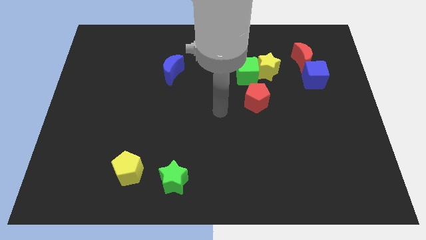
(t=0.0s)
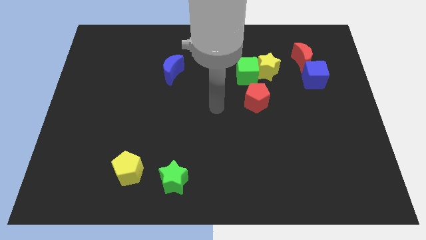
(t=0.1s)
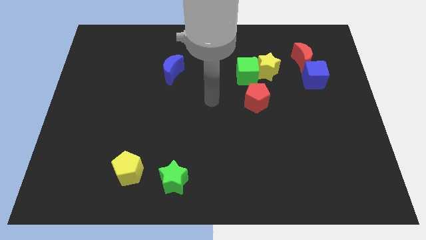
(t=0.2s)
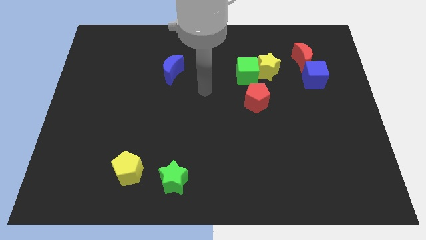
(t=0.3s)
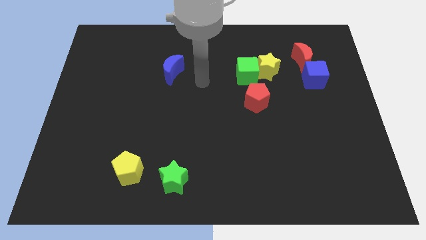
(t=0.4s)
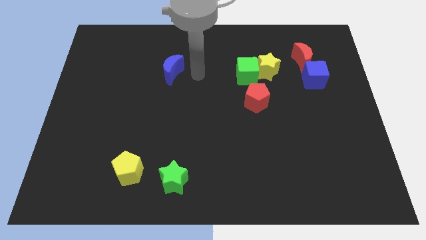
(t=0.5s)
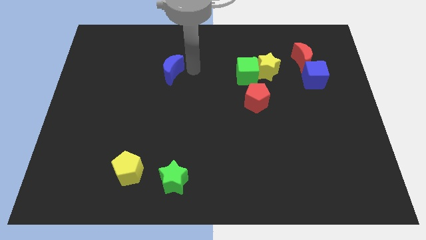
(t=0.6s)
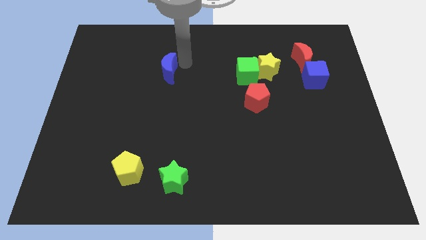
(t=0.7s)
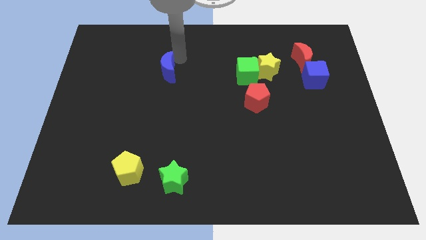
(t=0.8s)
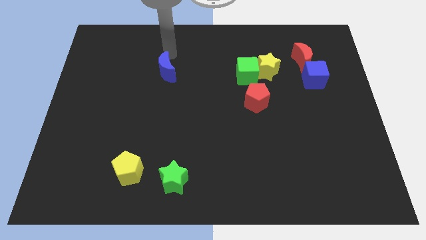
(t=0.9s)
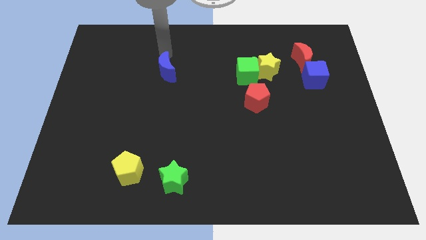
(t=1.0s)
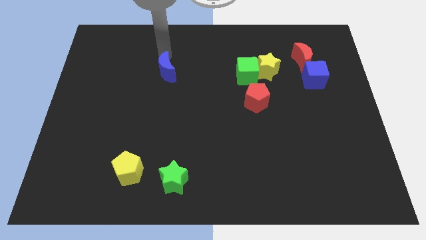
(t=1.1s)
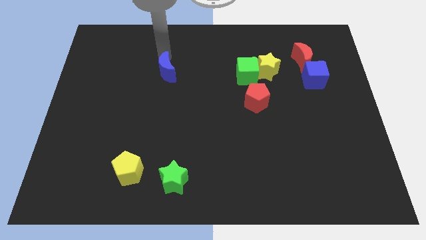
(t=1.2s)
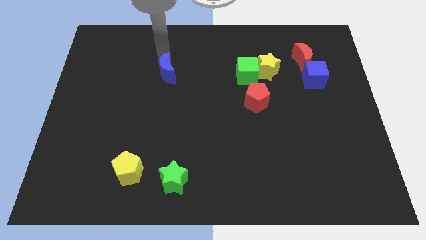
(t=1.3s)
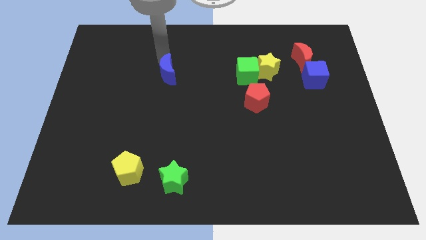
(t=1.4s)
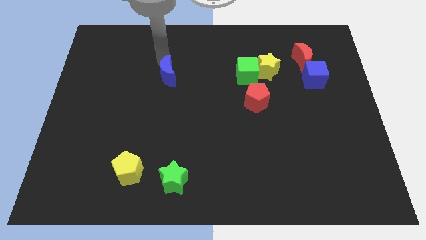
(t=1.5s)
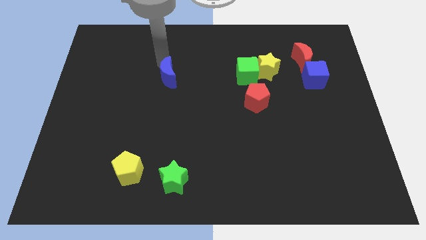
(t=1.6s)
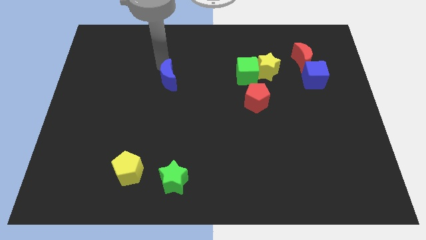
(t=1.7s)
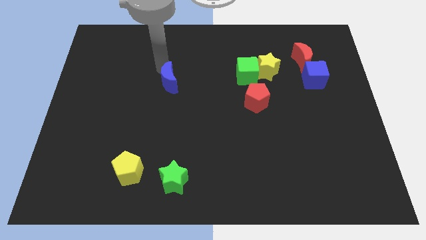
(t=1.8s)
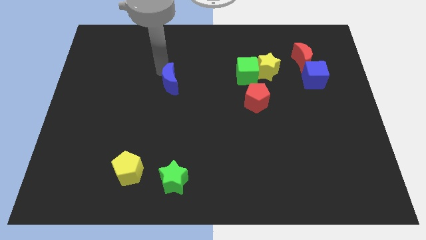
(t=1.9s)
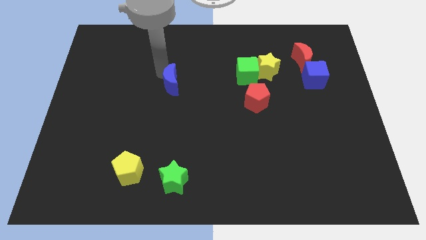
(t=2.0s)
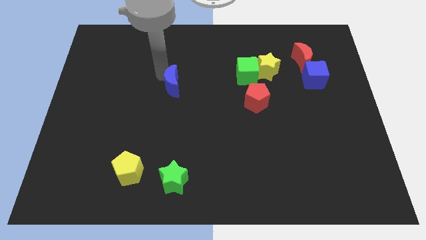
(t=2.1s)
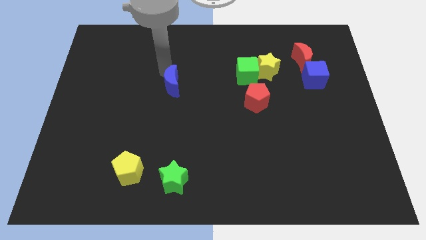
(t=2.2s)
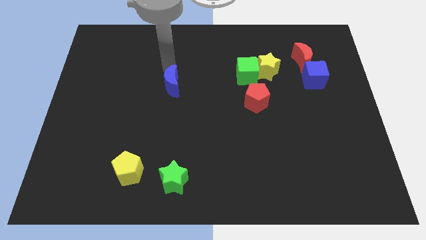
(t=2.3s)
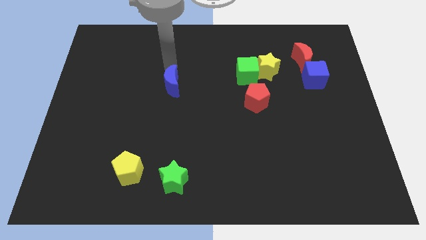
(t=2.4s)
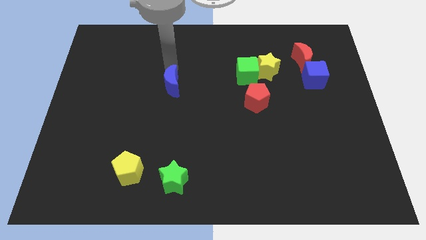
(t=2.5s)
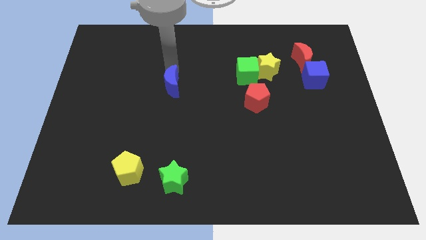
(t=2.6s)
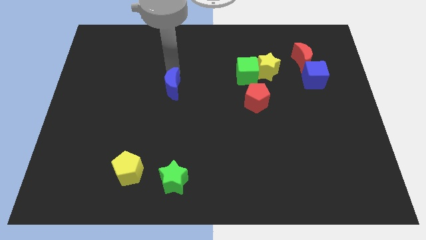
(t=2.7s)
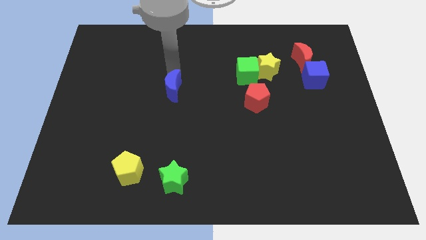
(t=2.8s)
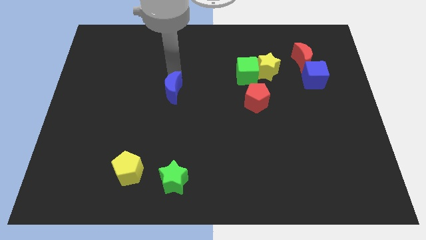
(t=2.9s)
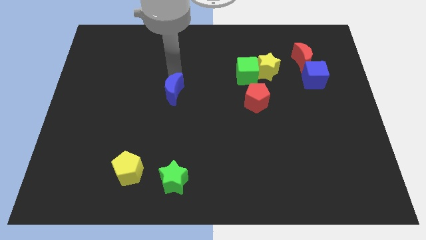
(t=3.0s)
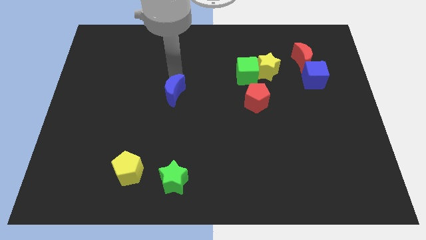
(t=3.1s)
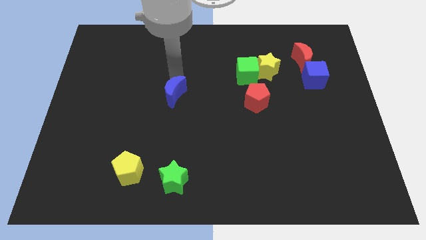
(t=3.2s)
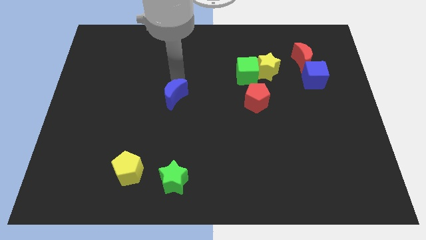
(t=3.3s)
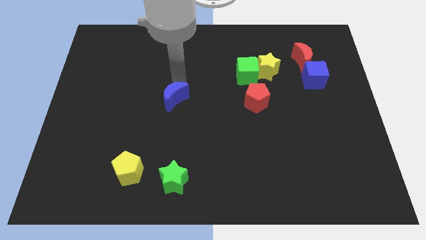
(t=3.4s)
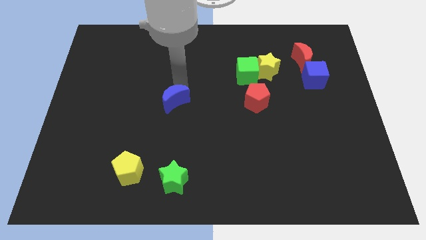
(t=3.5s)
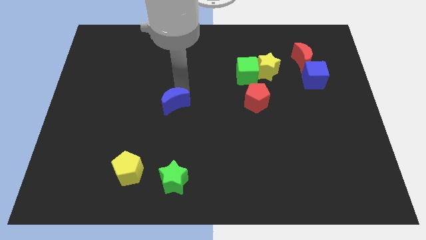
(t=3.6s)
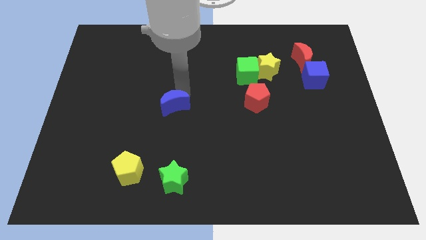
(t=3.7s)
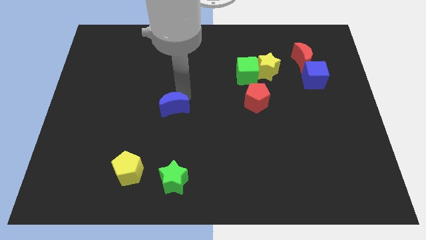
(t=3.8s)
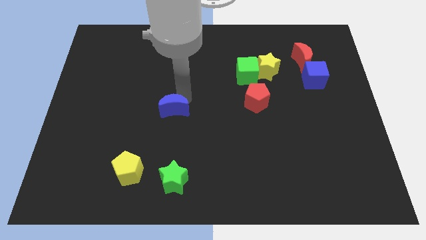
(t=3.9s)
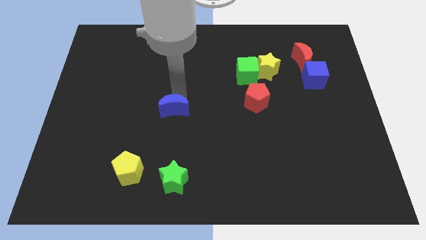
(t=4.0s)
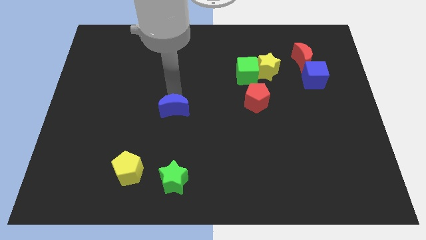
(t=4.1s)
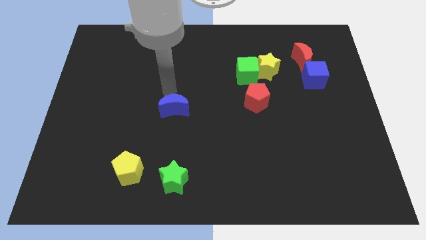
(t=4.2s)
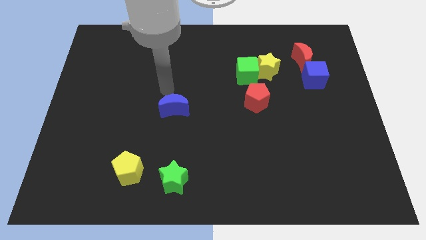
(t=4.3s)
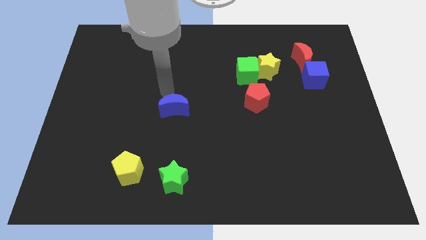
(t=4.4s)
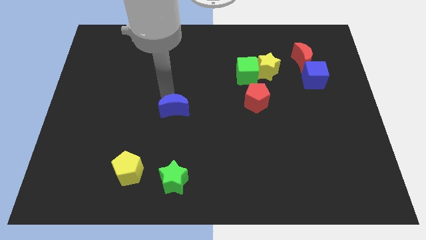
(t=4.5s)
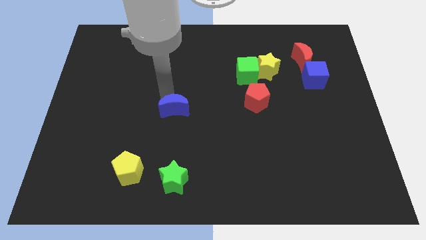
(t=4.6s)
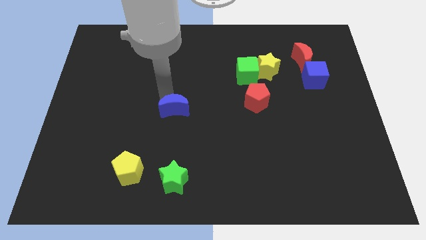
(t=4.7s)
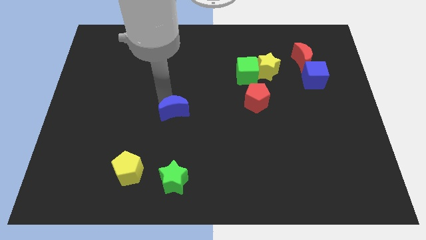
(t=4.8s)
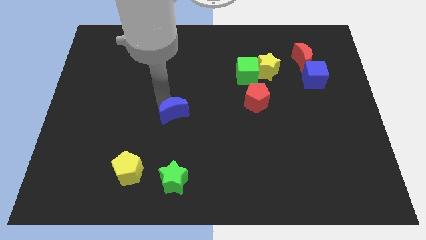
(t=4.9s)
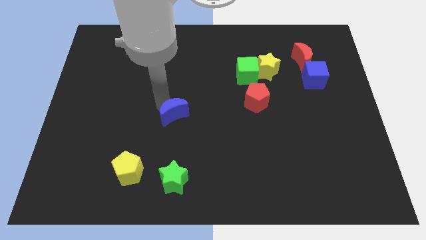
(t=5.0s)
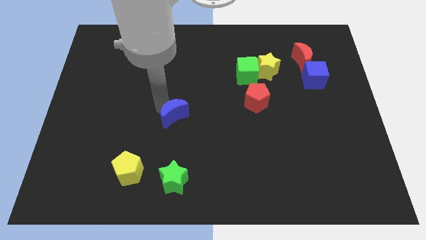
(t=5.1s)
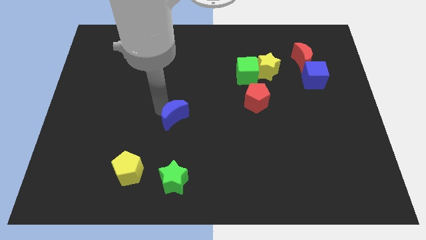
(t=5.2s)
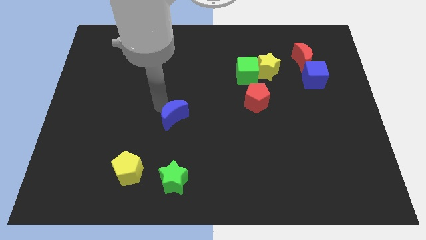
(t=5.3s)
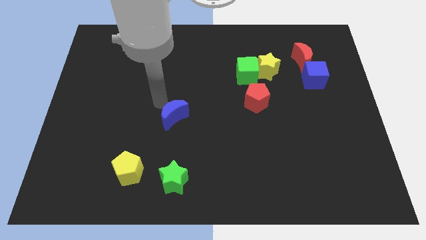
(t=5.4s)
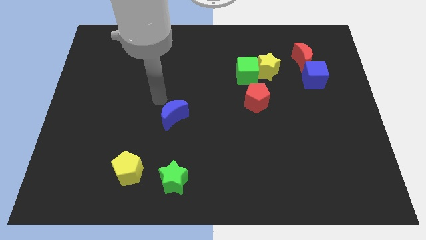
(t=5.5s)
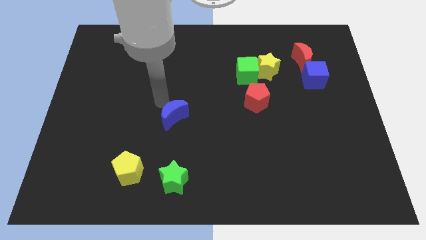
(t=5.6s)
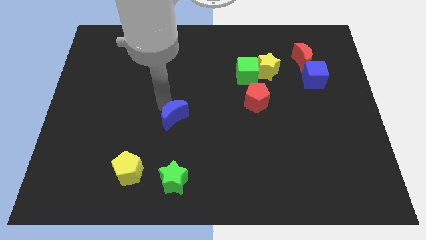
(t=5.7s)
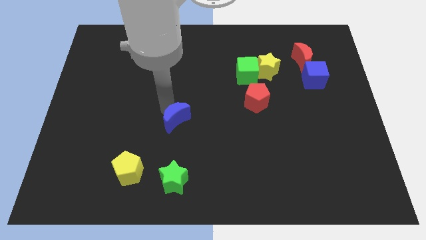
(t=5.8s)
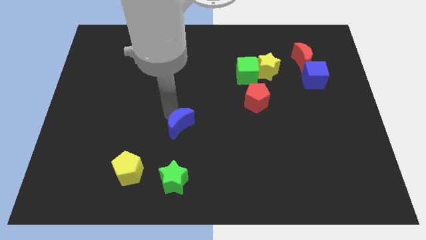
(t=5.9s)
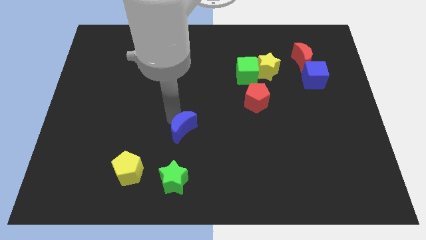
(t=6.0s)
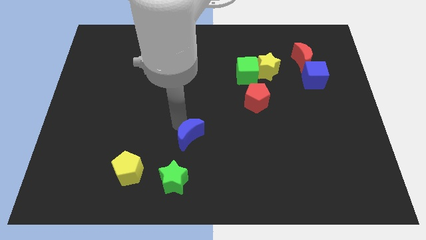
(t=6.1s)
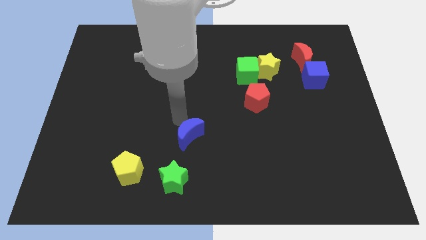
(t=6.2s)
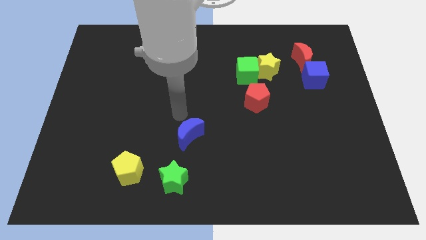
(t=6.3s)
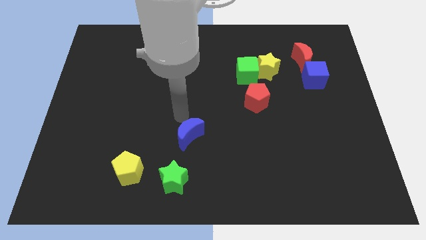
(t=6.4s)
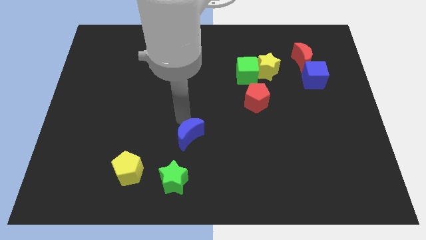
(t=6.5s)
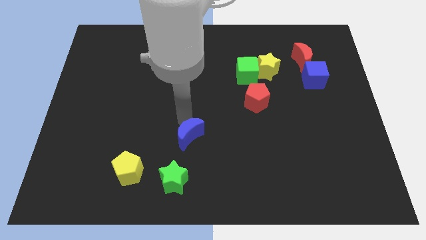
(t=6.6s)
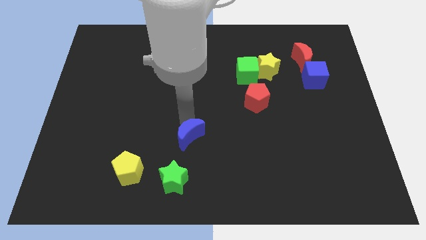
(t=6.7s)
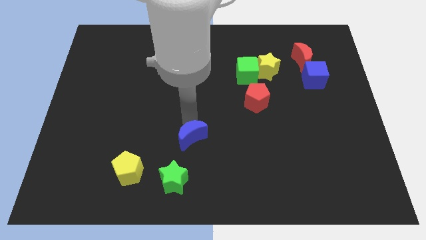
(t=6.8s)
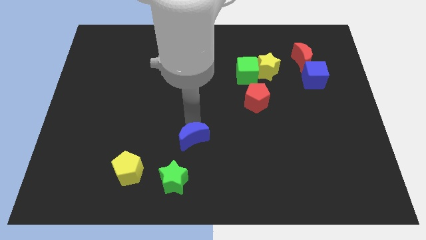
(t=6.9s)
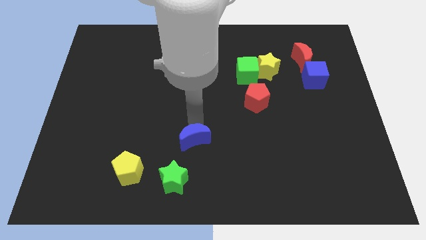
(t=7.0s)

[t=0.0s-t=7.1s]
move the blue moon diagonally up and to the right of the green star

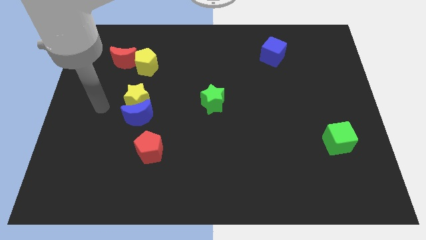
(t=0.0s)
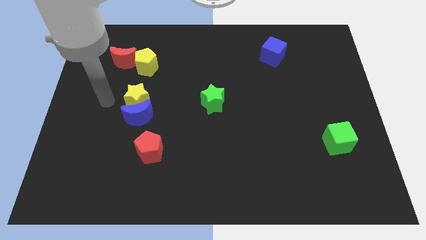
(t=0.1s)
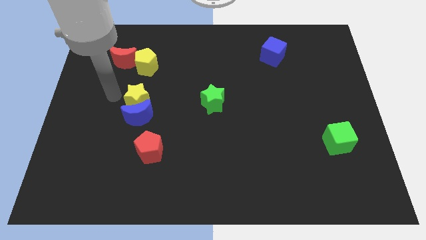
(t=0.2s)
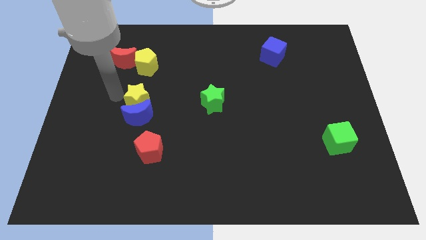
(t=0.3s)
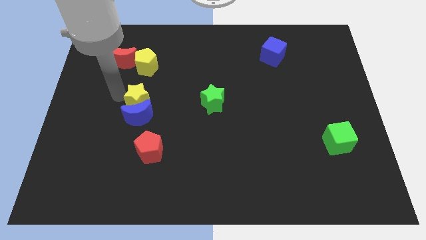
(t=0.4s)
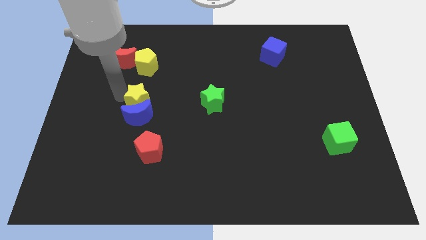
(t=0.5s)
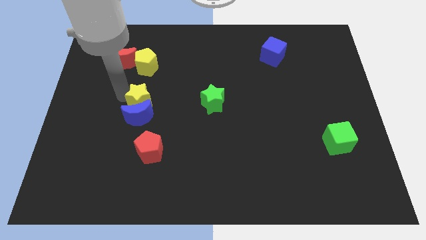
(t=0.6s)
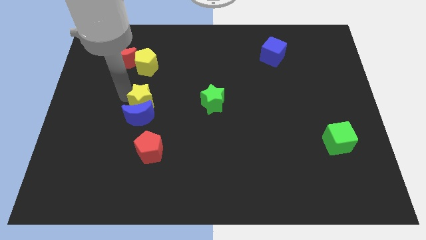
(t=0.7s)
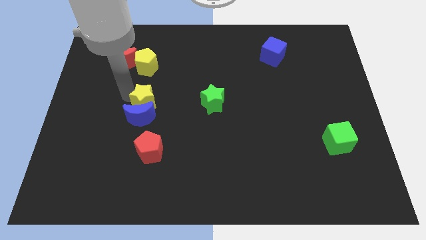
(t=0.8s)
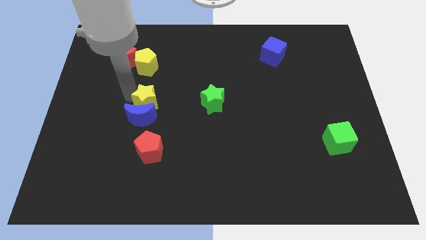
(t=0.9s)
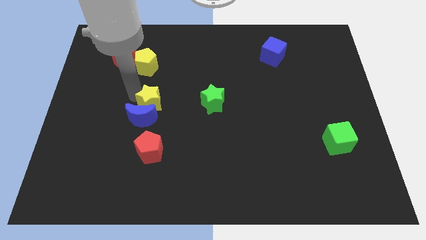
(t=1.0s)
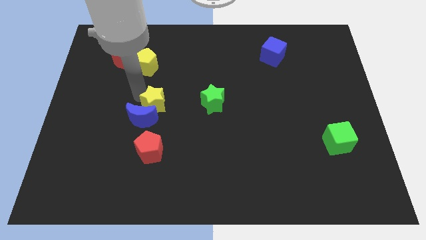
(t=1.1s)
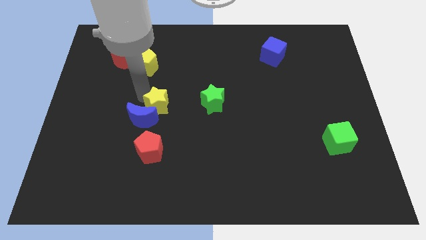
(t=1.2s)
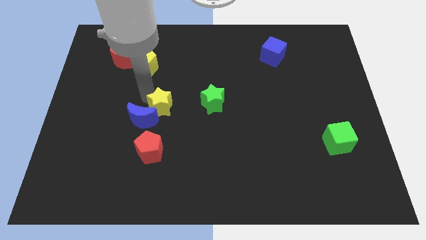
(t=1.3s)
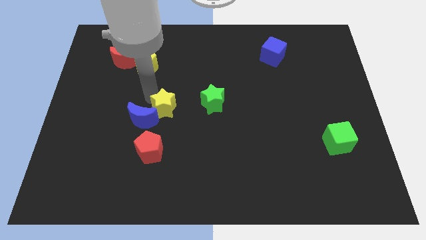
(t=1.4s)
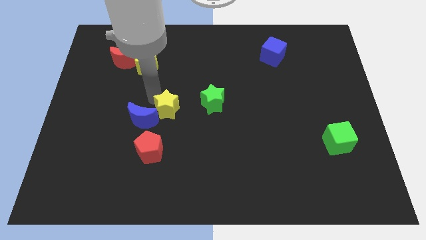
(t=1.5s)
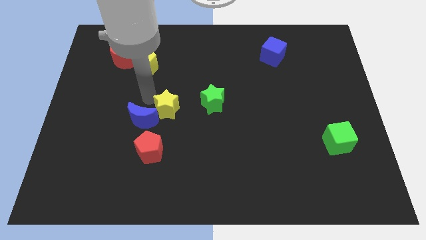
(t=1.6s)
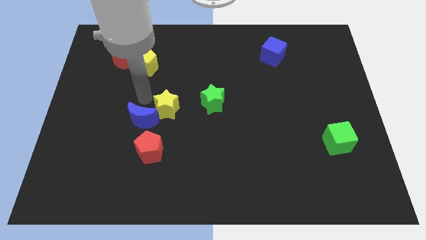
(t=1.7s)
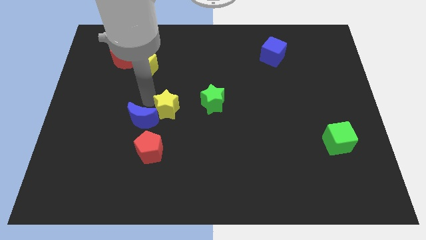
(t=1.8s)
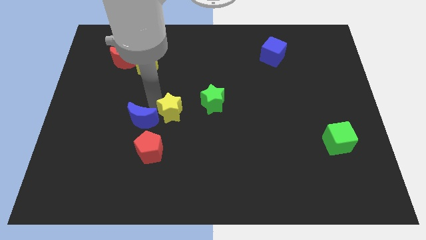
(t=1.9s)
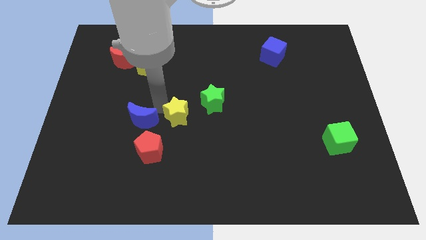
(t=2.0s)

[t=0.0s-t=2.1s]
move the yellow star diagonally down and to the left of the green star
